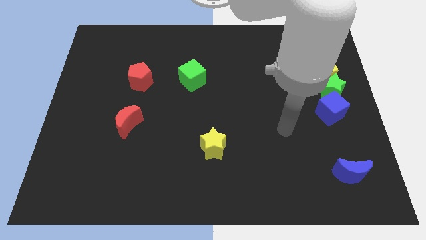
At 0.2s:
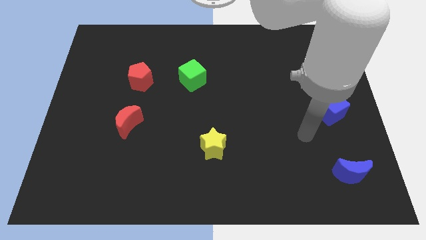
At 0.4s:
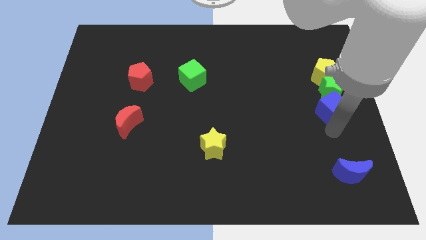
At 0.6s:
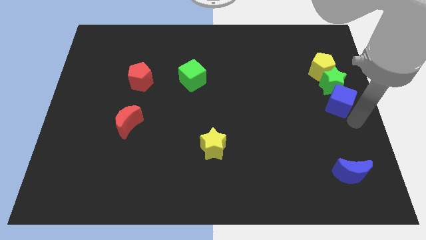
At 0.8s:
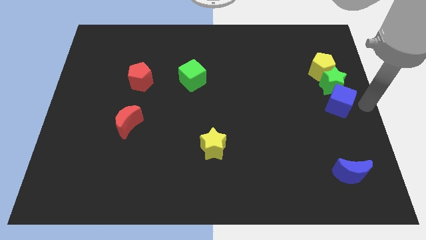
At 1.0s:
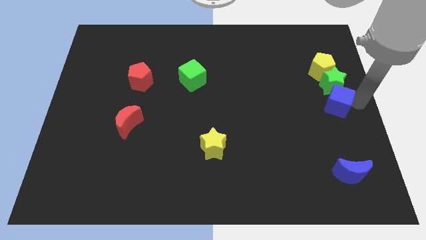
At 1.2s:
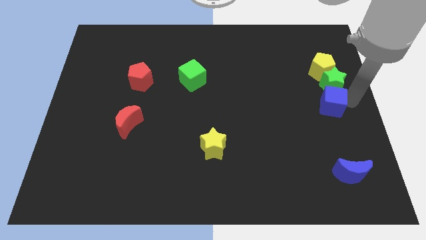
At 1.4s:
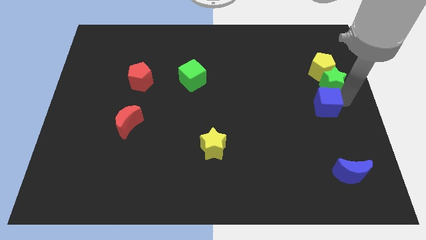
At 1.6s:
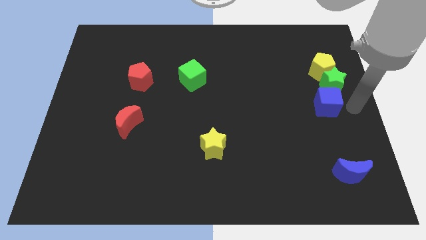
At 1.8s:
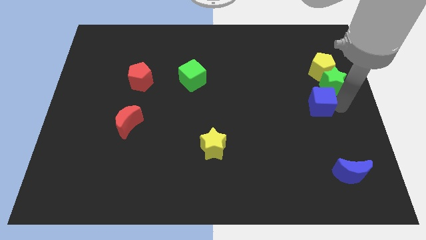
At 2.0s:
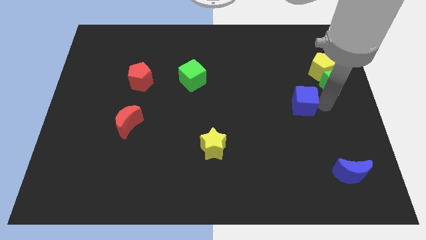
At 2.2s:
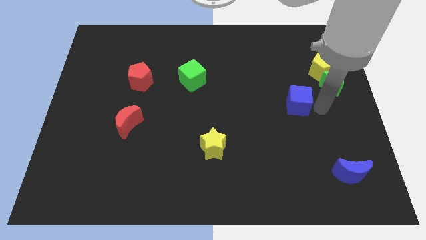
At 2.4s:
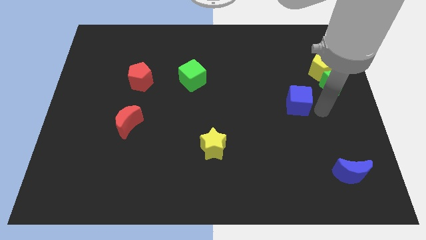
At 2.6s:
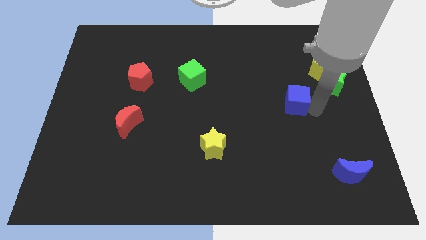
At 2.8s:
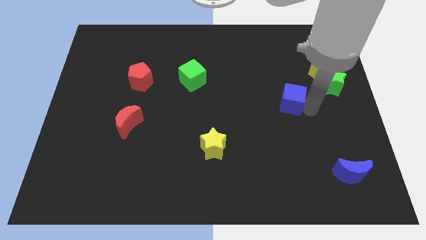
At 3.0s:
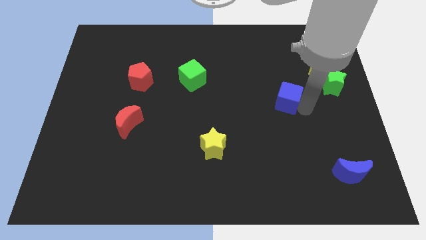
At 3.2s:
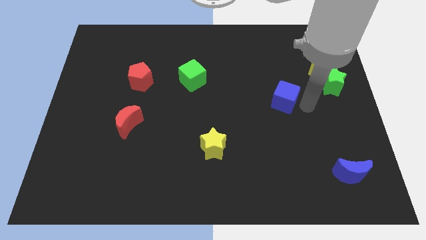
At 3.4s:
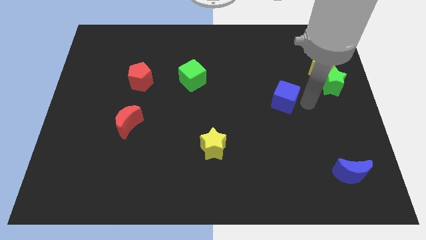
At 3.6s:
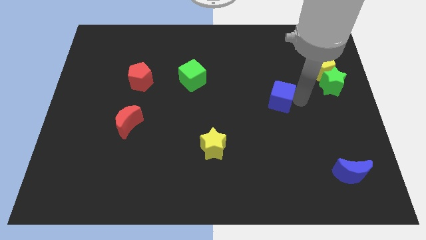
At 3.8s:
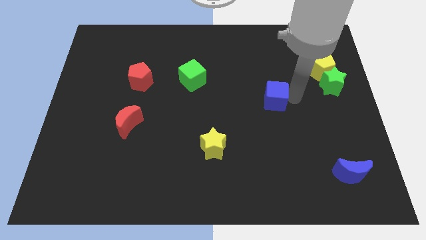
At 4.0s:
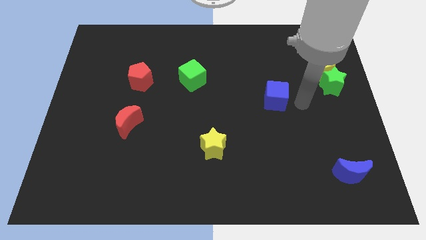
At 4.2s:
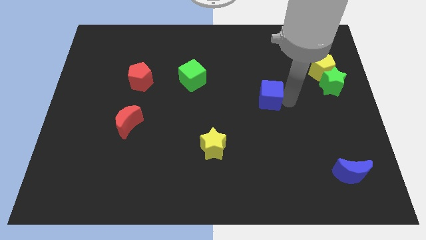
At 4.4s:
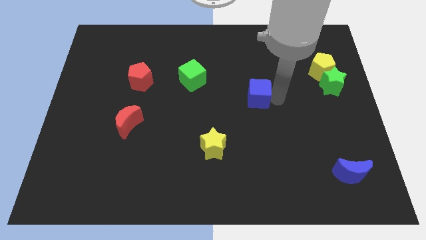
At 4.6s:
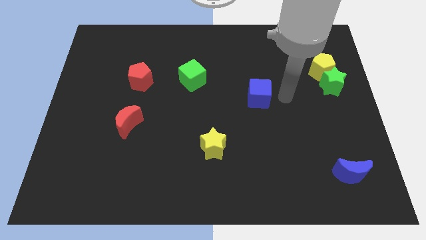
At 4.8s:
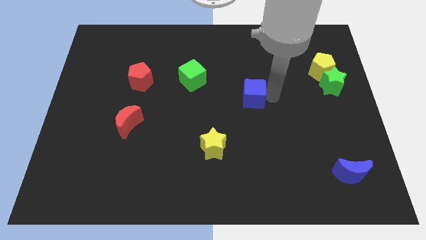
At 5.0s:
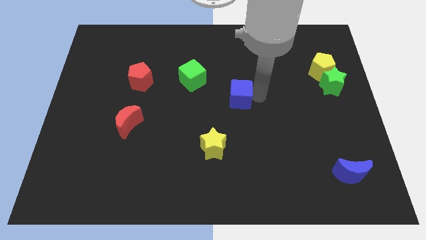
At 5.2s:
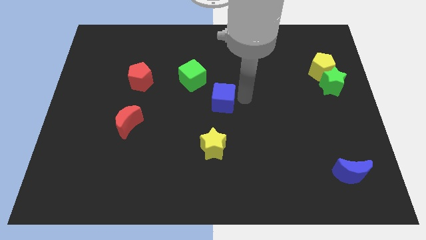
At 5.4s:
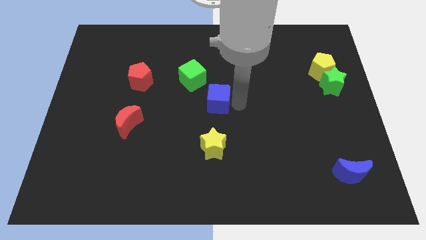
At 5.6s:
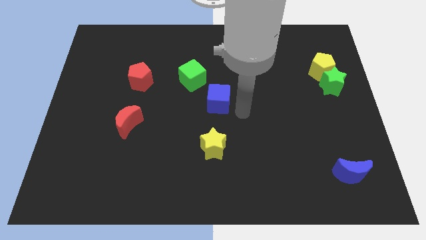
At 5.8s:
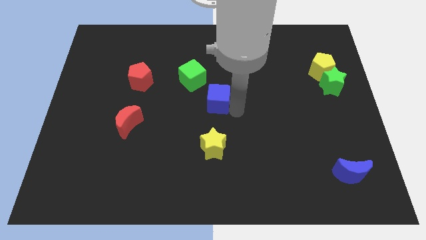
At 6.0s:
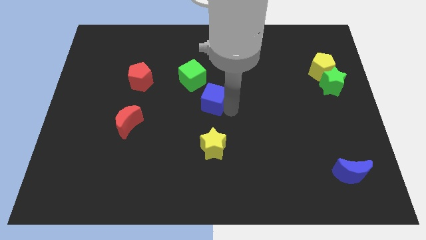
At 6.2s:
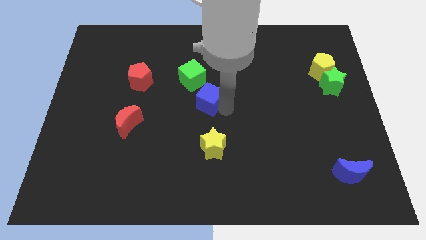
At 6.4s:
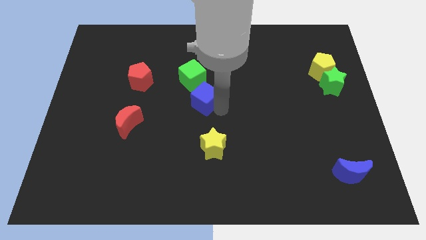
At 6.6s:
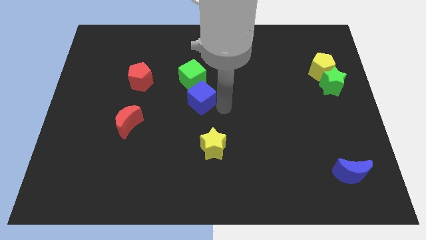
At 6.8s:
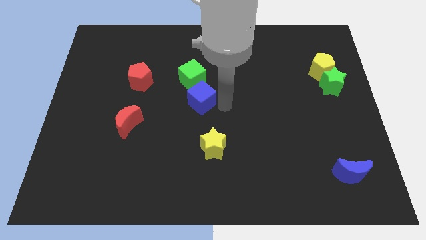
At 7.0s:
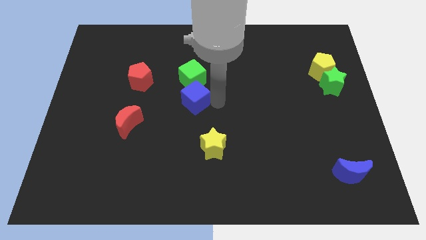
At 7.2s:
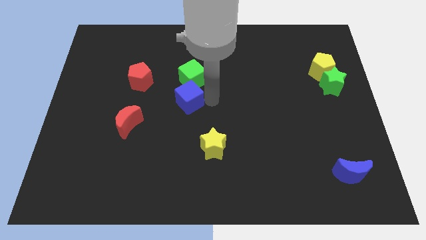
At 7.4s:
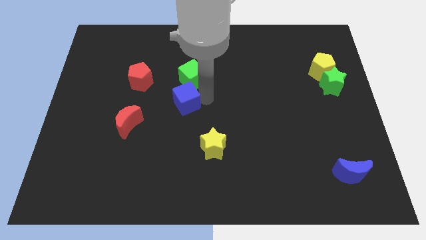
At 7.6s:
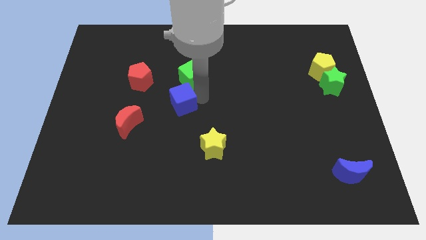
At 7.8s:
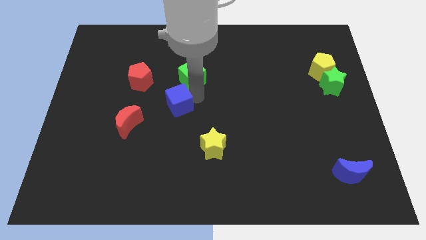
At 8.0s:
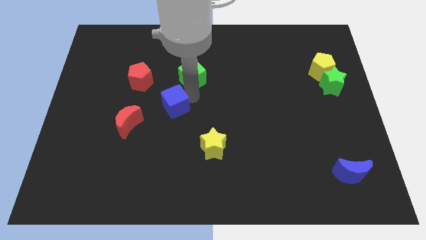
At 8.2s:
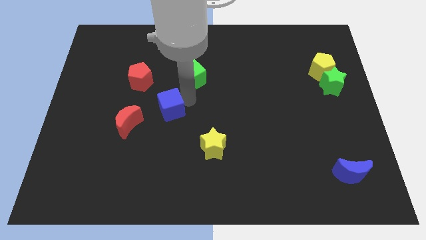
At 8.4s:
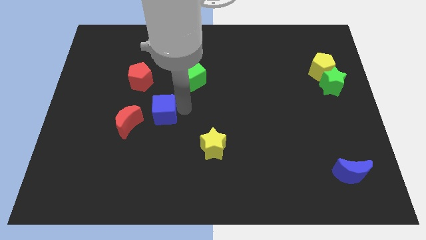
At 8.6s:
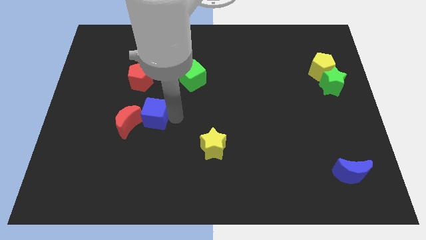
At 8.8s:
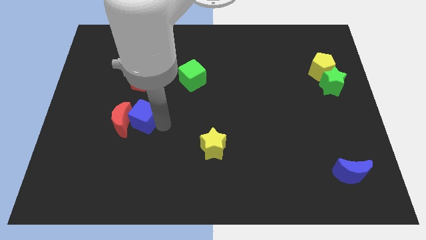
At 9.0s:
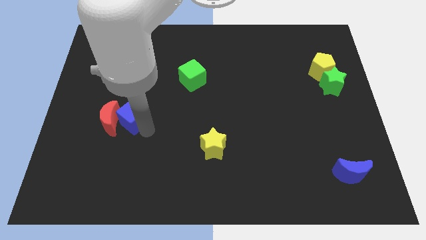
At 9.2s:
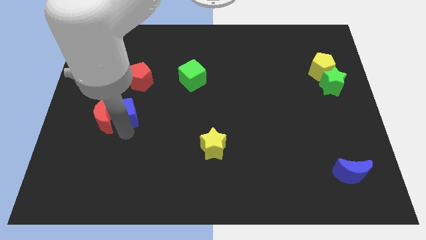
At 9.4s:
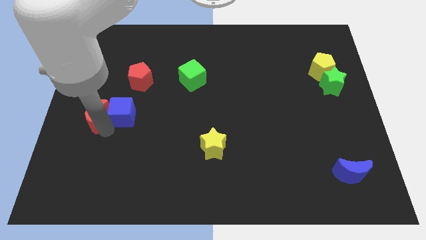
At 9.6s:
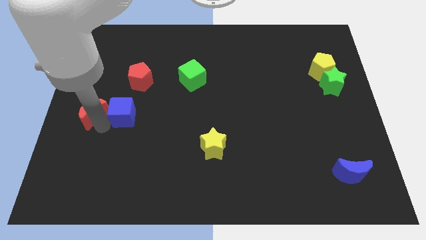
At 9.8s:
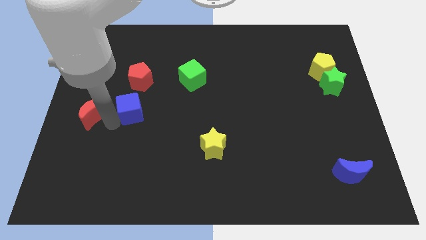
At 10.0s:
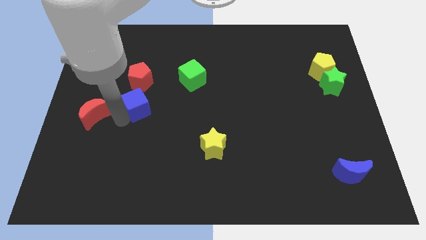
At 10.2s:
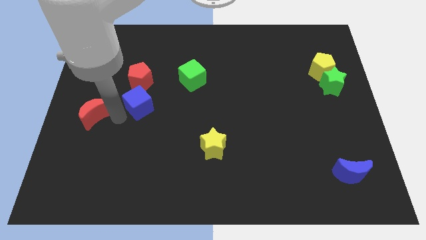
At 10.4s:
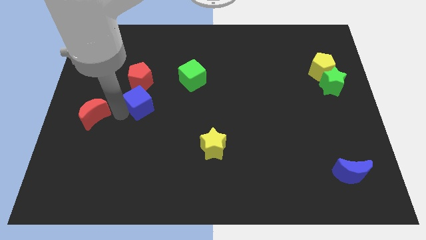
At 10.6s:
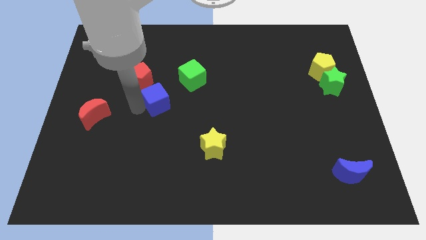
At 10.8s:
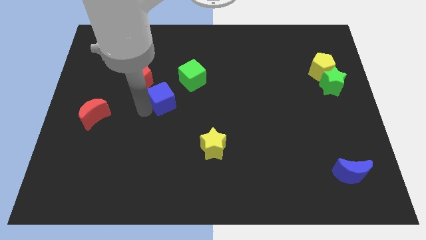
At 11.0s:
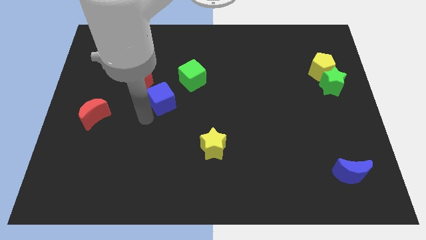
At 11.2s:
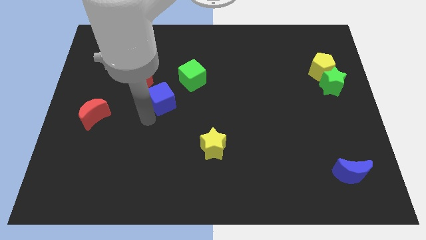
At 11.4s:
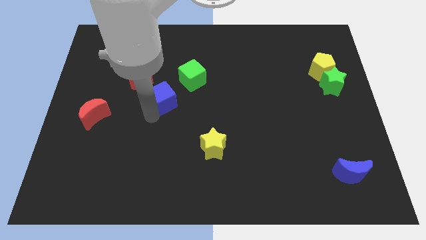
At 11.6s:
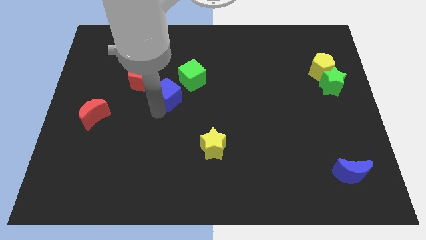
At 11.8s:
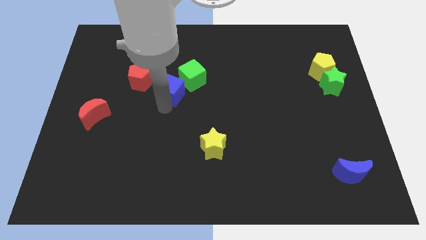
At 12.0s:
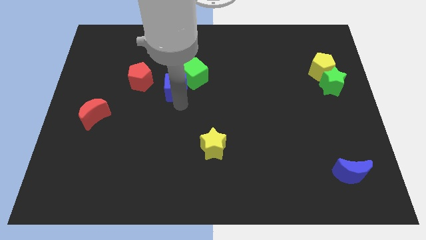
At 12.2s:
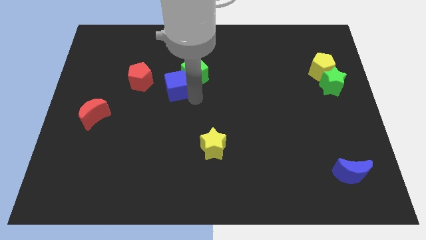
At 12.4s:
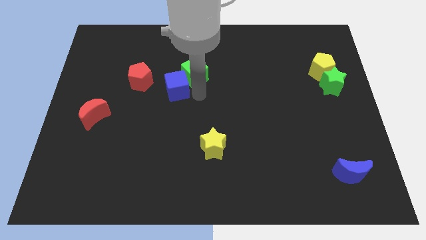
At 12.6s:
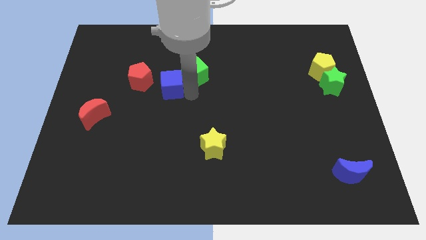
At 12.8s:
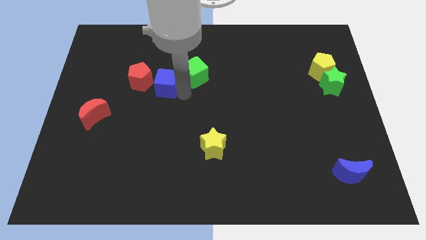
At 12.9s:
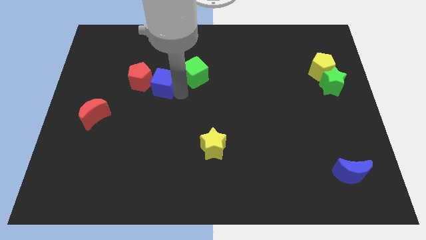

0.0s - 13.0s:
slide the blue cube towards the red pentagon
